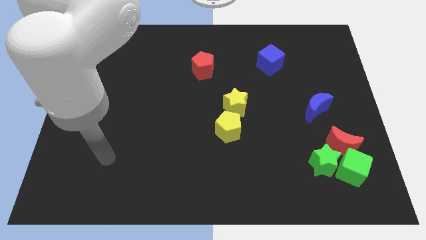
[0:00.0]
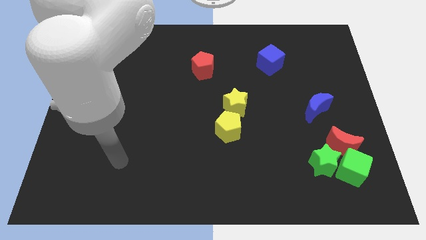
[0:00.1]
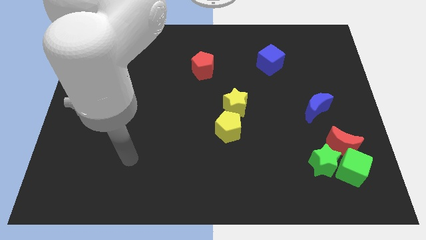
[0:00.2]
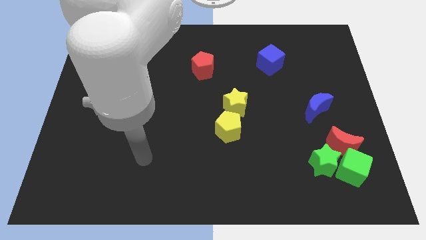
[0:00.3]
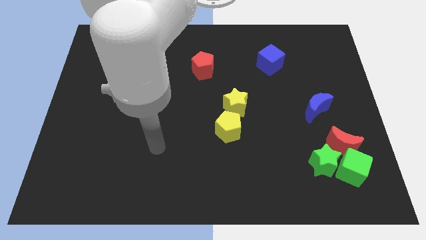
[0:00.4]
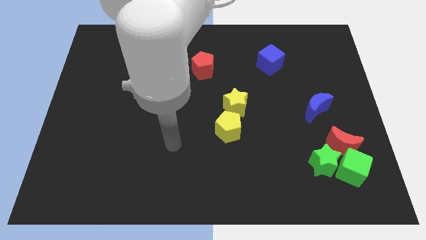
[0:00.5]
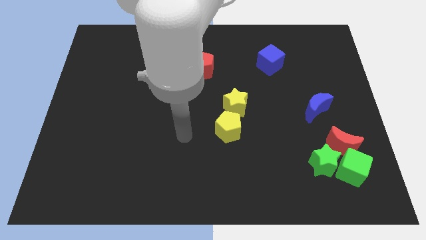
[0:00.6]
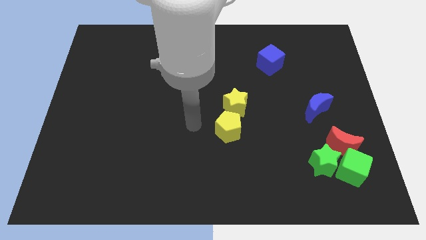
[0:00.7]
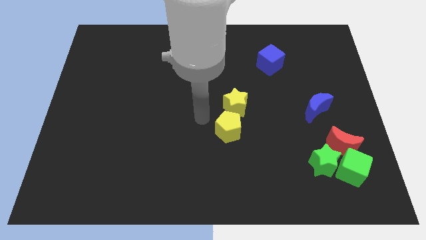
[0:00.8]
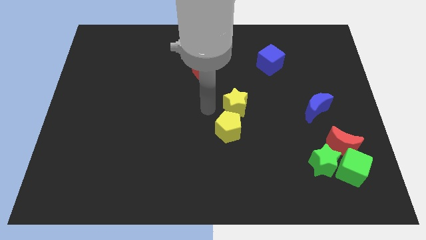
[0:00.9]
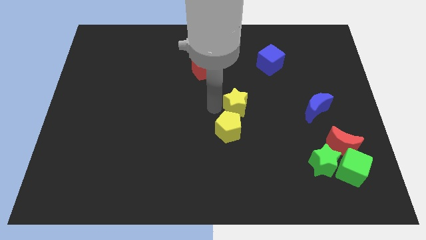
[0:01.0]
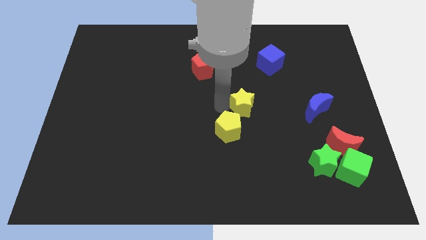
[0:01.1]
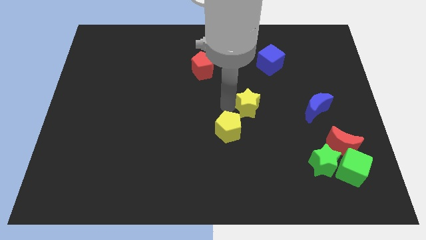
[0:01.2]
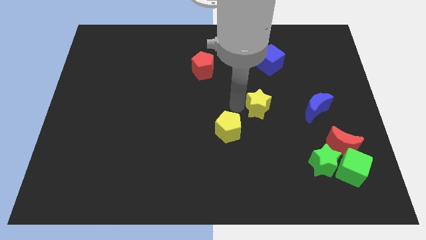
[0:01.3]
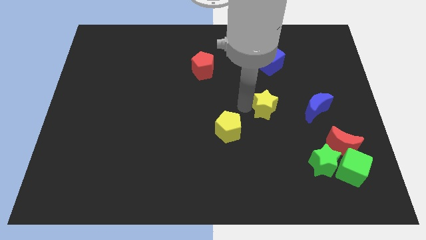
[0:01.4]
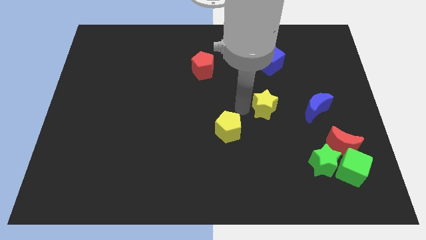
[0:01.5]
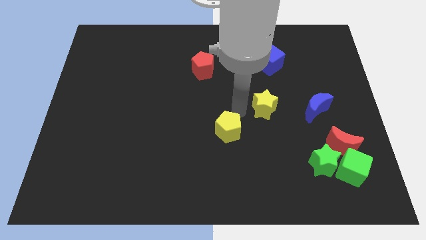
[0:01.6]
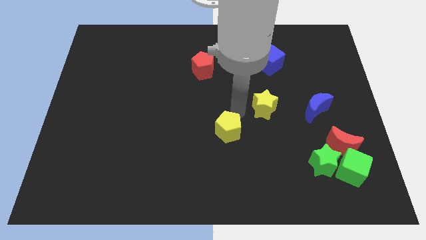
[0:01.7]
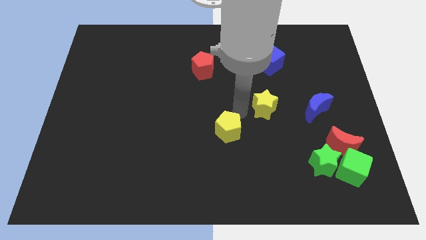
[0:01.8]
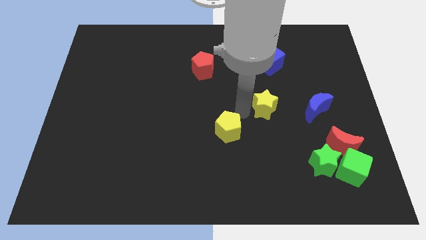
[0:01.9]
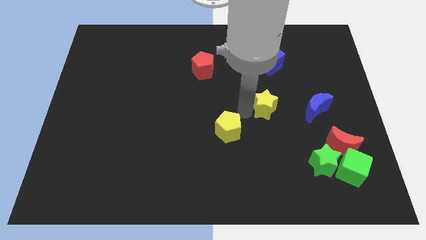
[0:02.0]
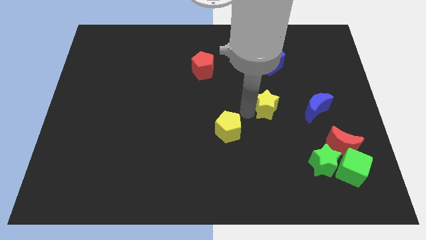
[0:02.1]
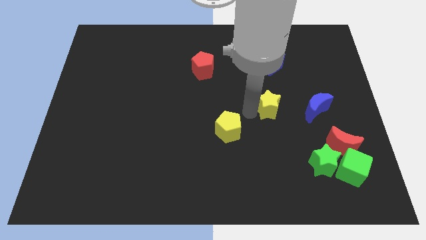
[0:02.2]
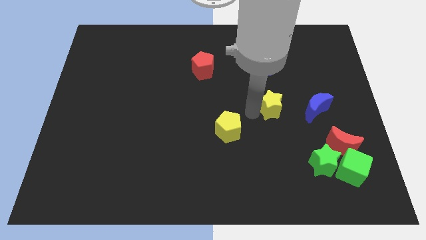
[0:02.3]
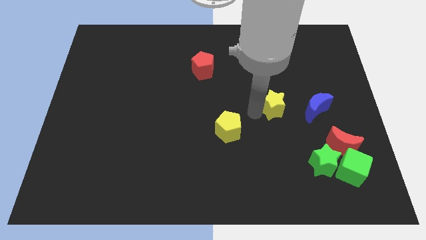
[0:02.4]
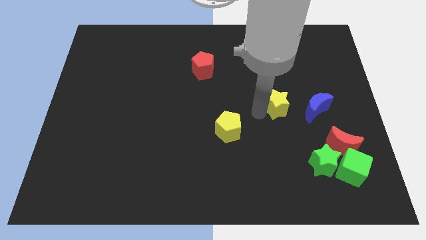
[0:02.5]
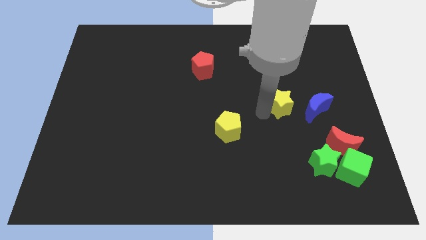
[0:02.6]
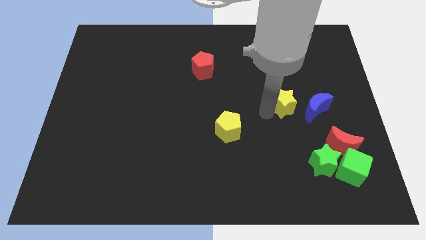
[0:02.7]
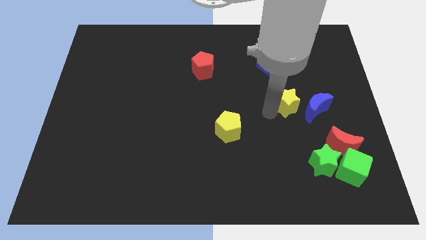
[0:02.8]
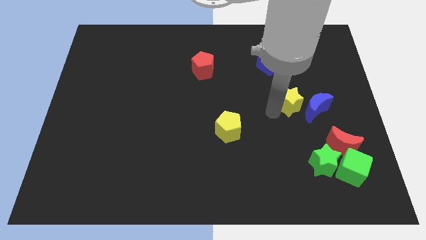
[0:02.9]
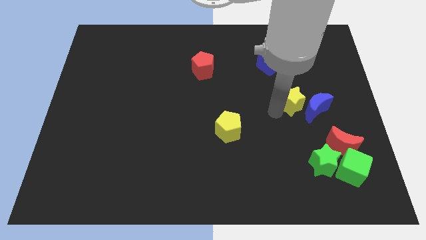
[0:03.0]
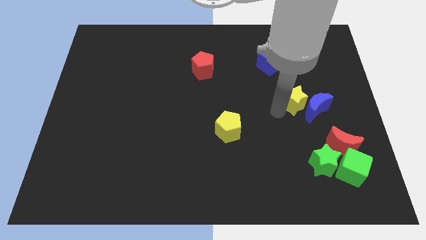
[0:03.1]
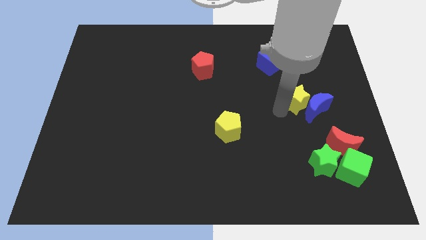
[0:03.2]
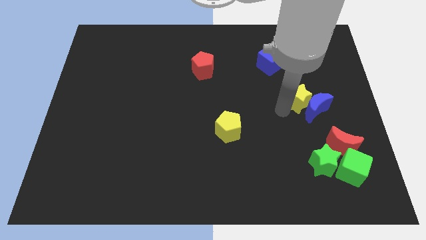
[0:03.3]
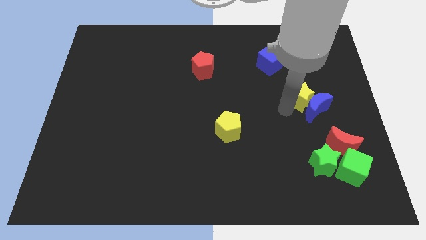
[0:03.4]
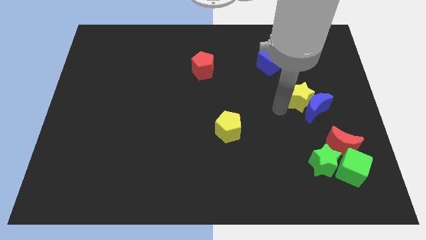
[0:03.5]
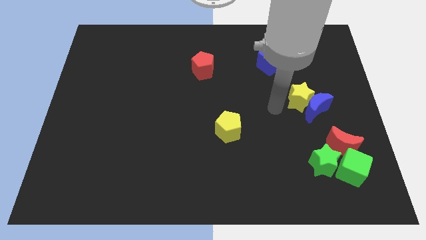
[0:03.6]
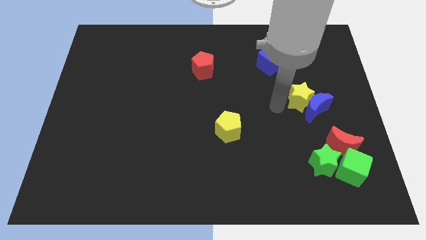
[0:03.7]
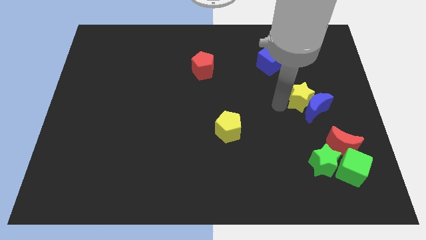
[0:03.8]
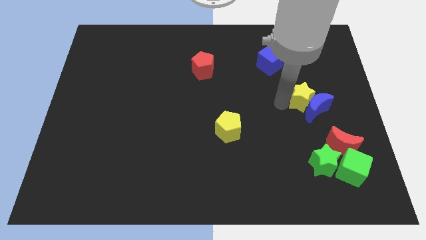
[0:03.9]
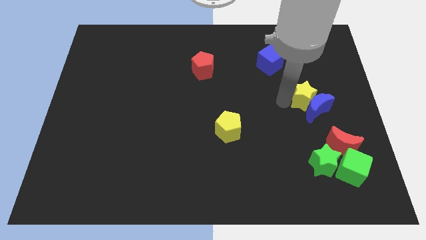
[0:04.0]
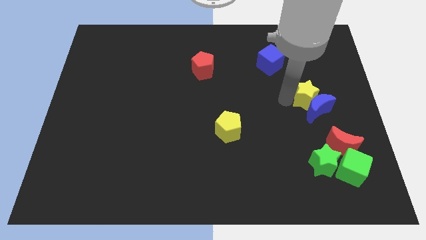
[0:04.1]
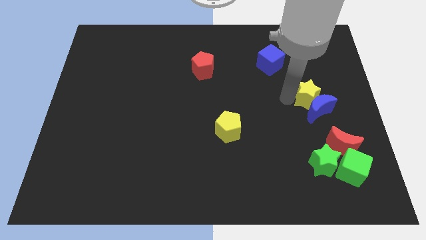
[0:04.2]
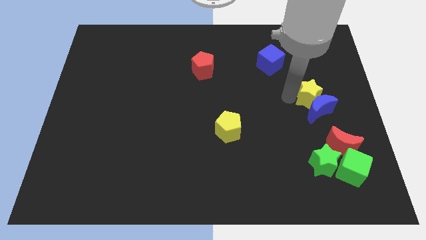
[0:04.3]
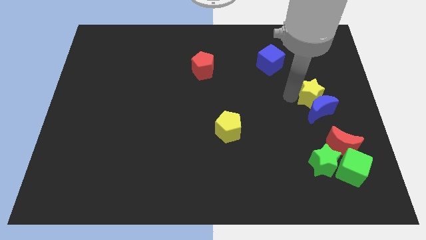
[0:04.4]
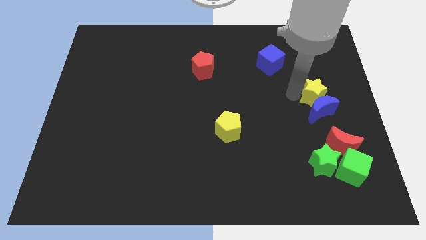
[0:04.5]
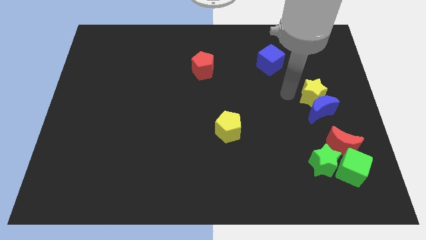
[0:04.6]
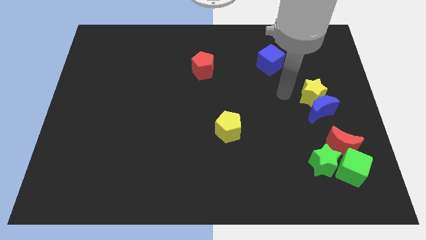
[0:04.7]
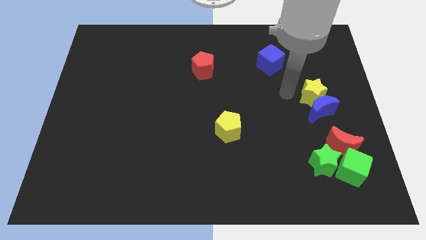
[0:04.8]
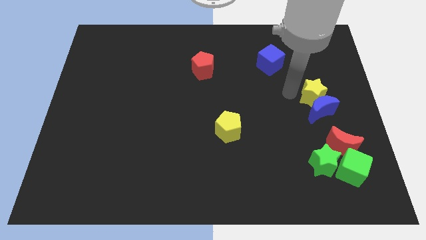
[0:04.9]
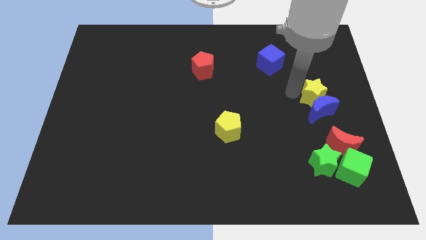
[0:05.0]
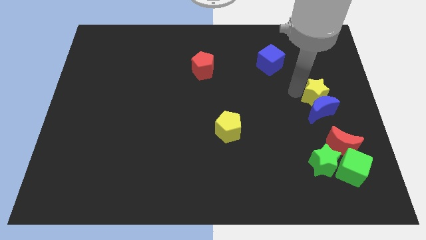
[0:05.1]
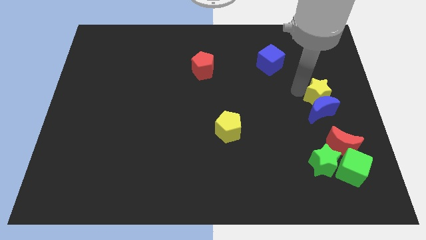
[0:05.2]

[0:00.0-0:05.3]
push the yellow star to the right side of the board

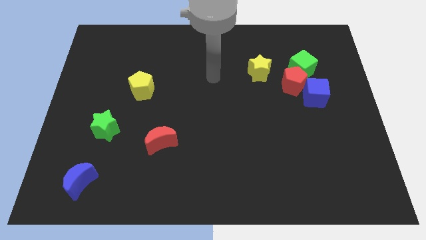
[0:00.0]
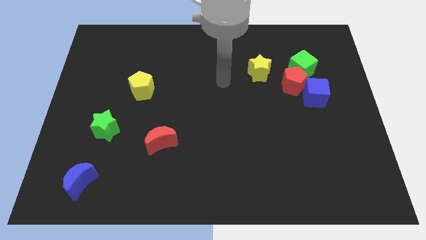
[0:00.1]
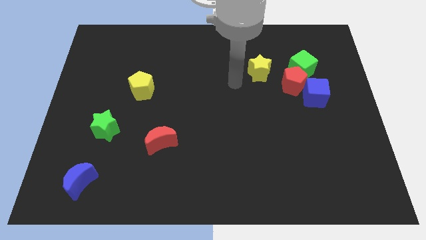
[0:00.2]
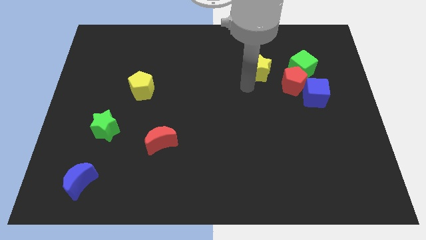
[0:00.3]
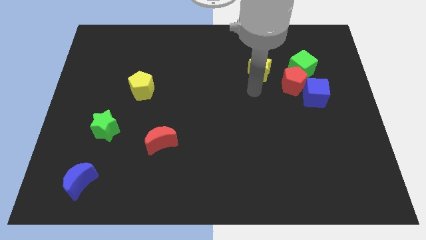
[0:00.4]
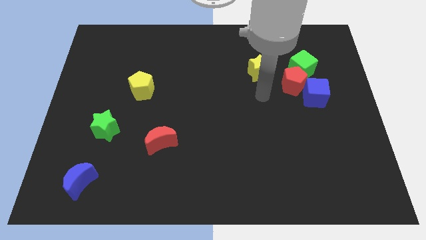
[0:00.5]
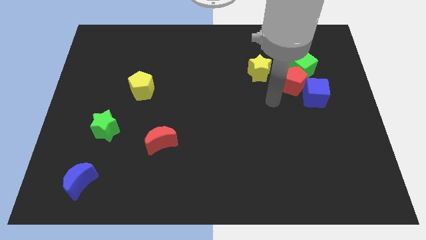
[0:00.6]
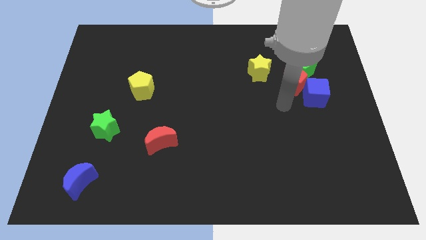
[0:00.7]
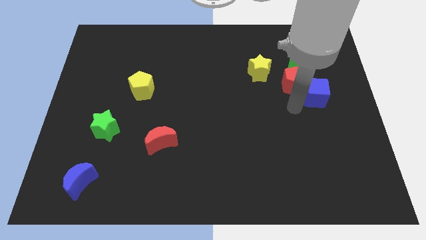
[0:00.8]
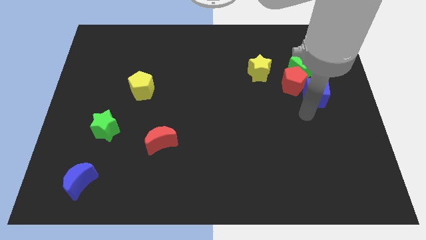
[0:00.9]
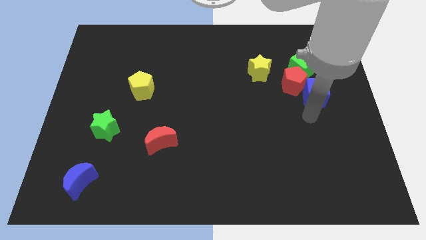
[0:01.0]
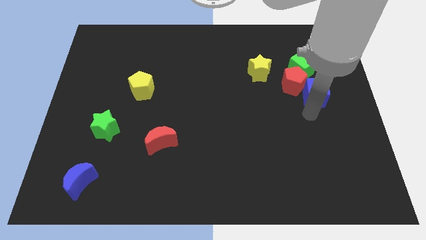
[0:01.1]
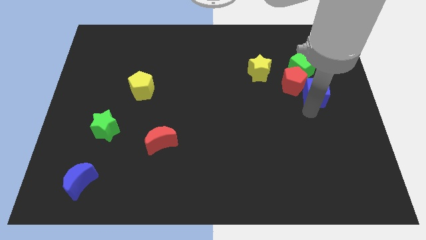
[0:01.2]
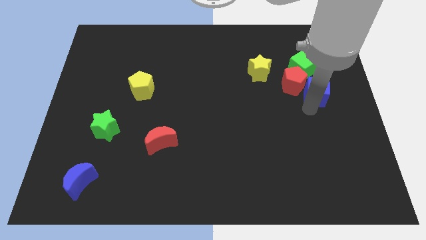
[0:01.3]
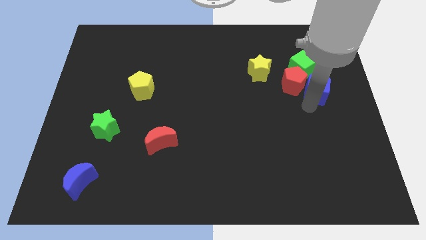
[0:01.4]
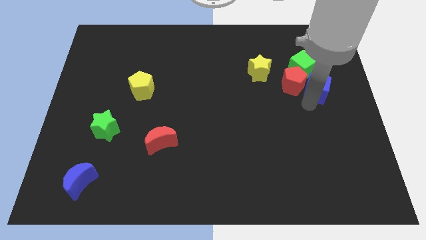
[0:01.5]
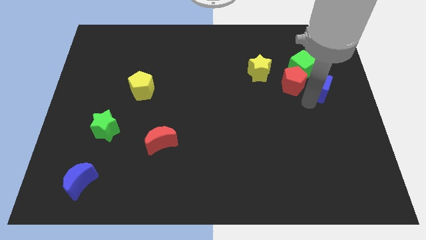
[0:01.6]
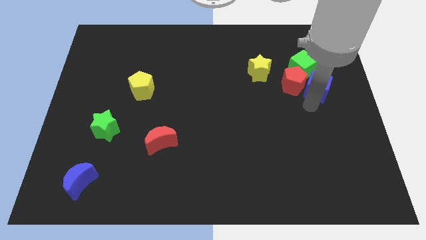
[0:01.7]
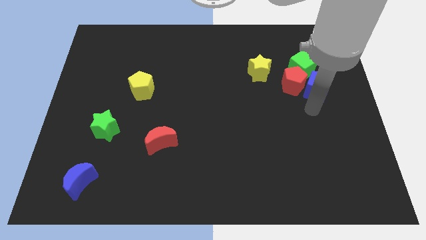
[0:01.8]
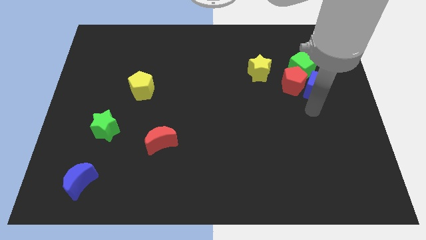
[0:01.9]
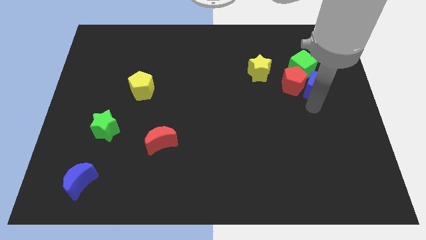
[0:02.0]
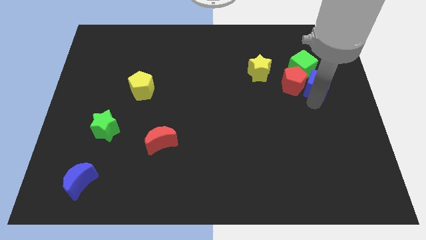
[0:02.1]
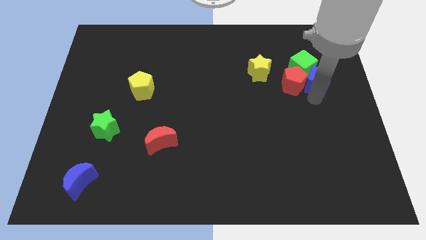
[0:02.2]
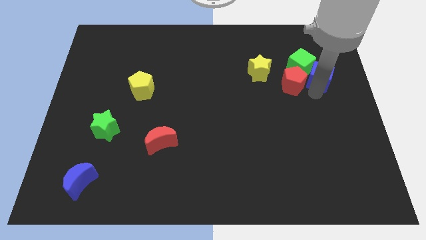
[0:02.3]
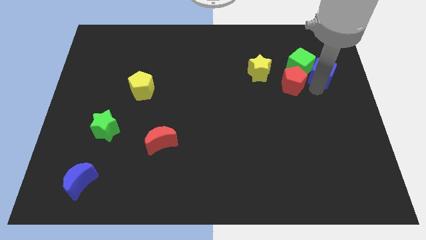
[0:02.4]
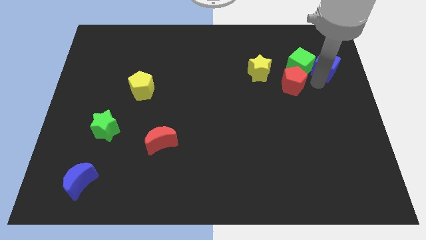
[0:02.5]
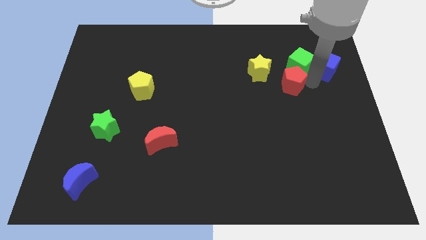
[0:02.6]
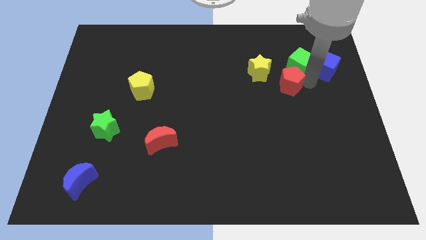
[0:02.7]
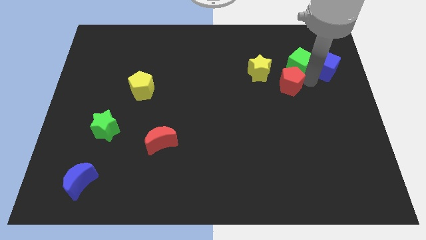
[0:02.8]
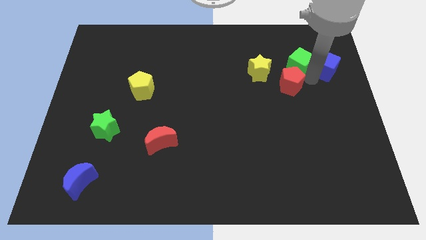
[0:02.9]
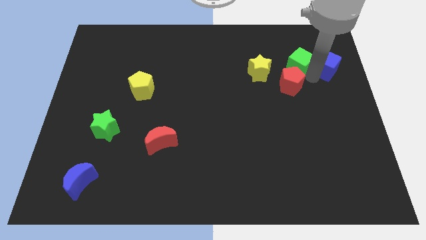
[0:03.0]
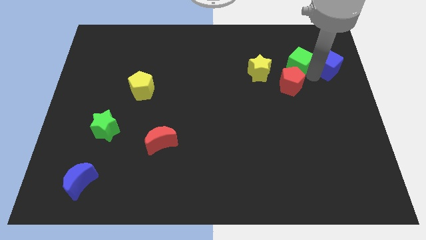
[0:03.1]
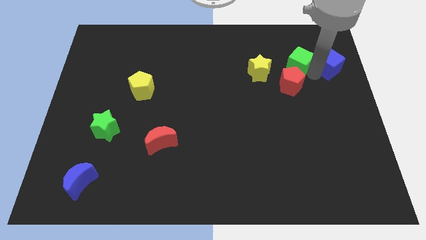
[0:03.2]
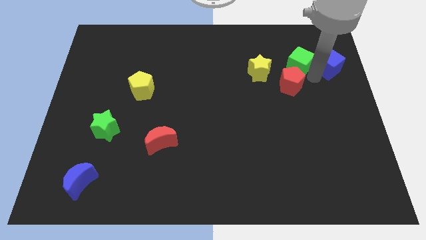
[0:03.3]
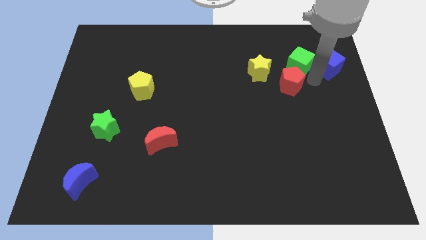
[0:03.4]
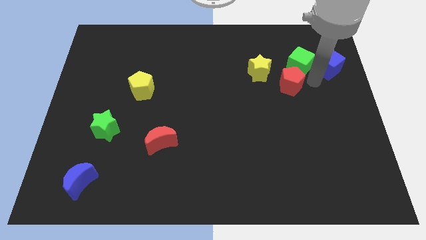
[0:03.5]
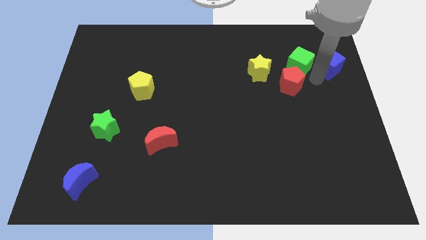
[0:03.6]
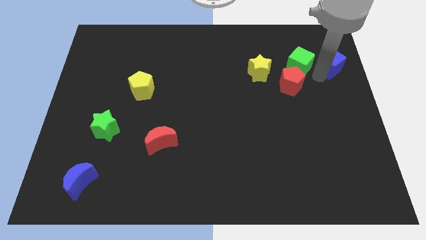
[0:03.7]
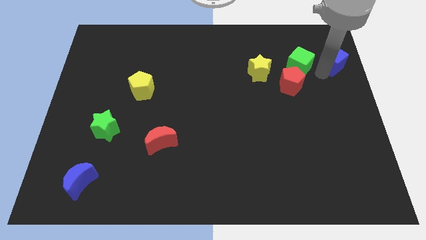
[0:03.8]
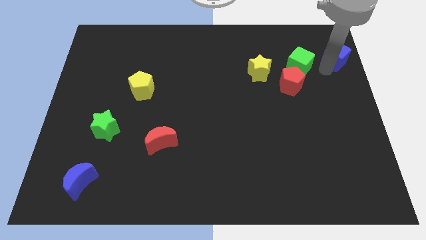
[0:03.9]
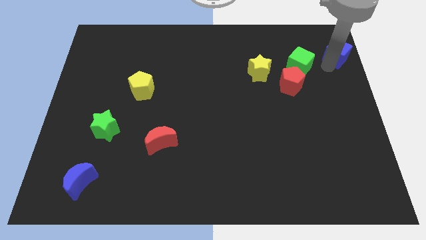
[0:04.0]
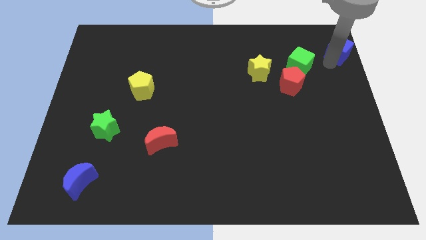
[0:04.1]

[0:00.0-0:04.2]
put the blue cube to the upper right corner
